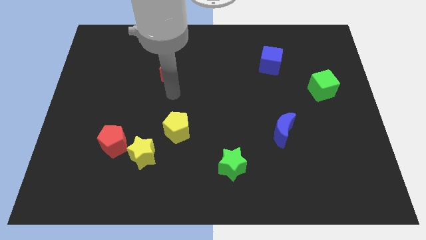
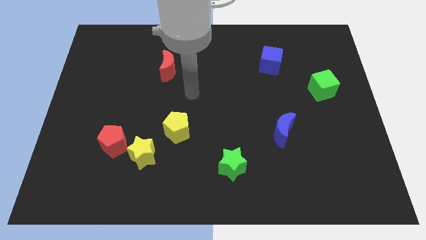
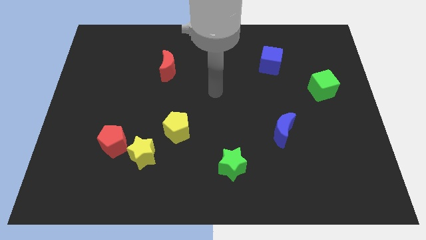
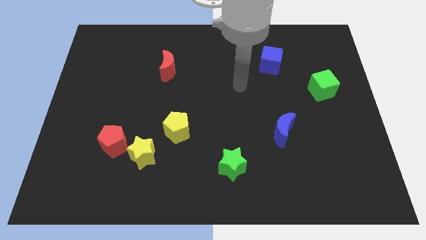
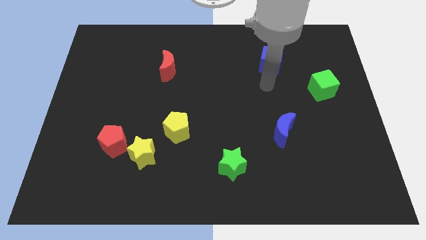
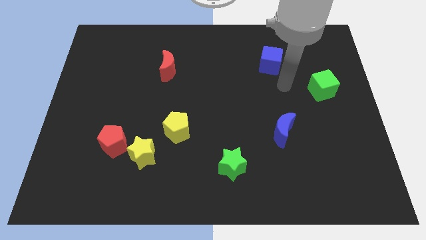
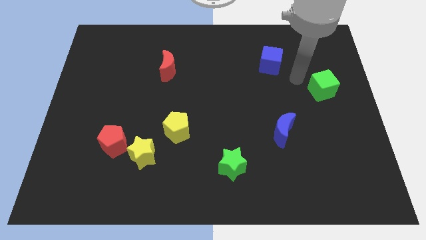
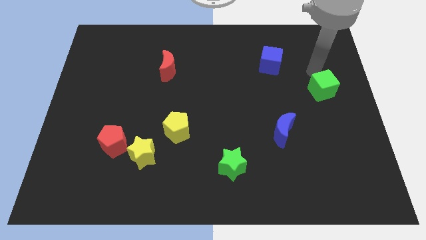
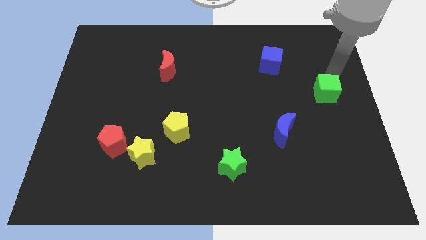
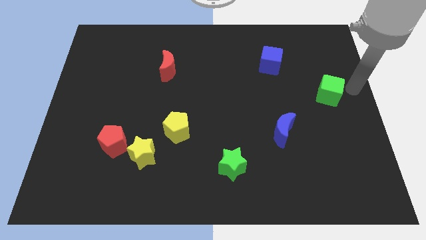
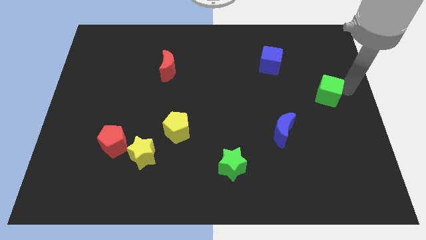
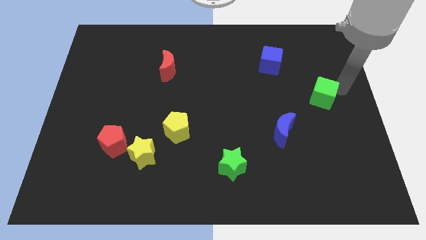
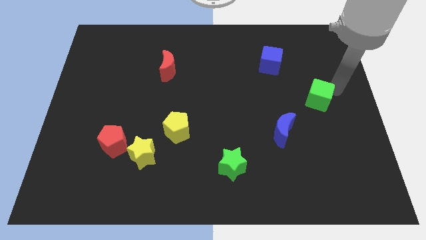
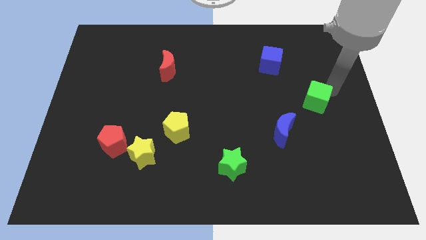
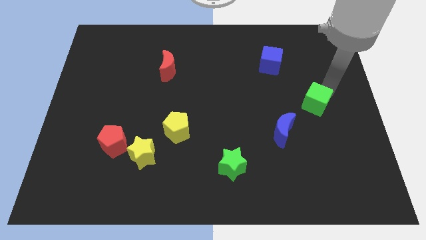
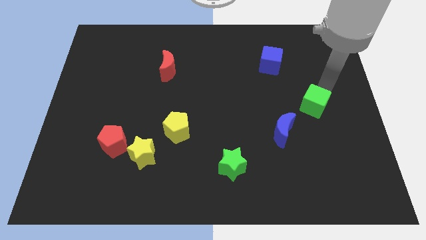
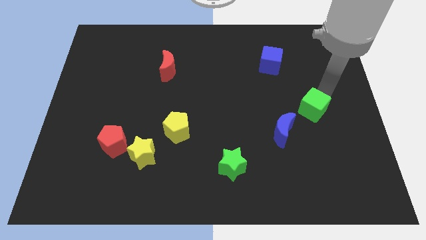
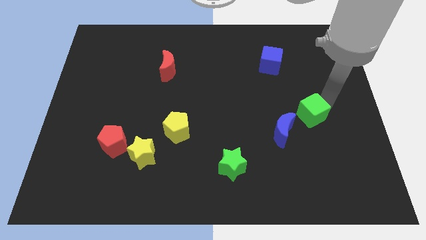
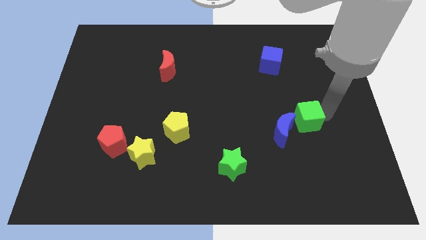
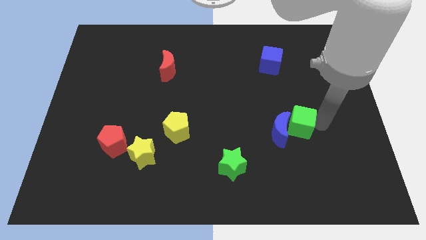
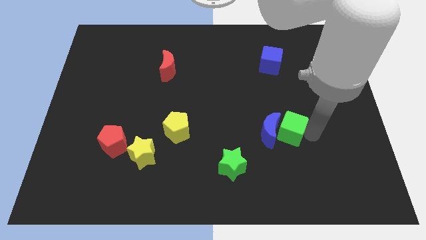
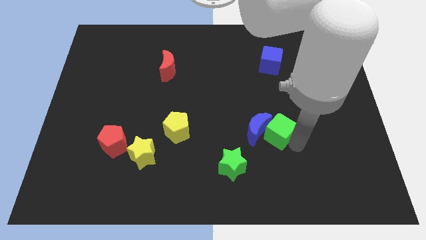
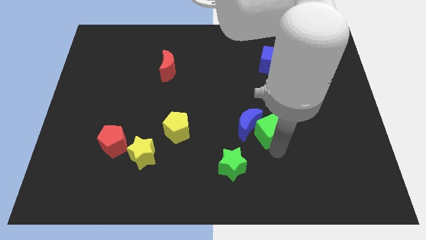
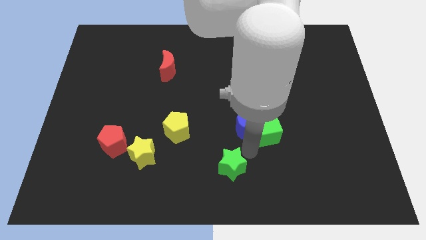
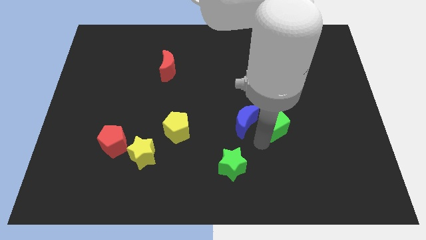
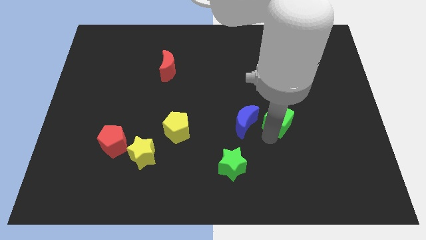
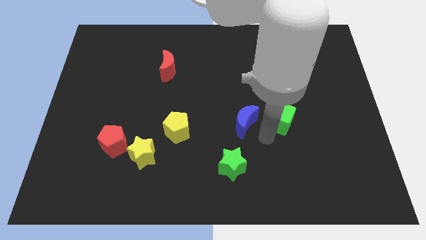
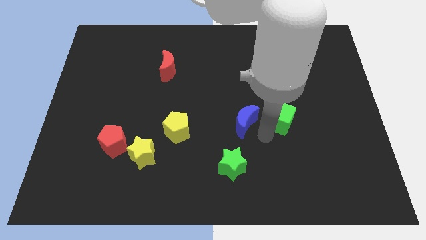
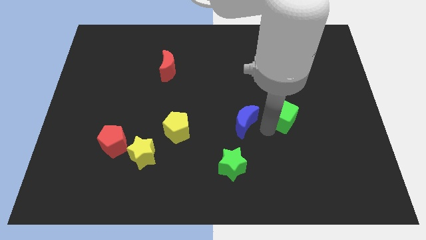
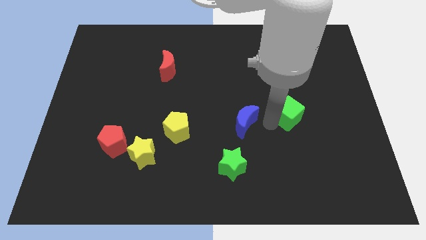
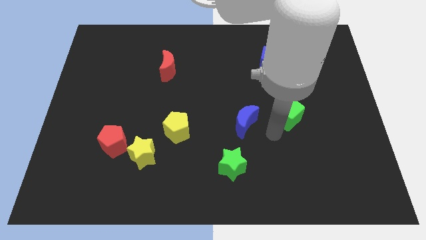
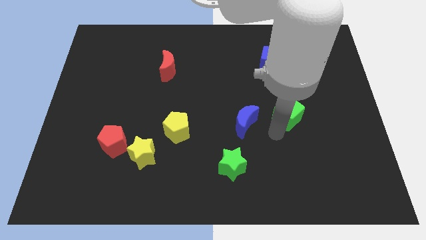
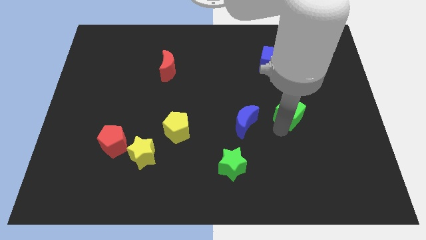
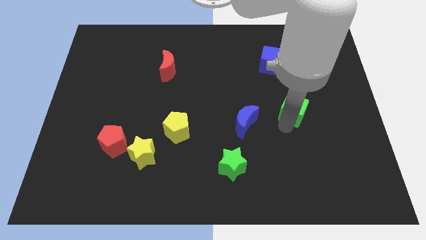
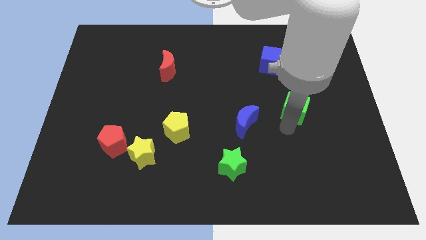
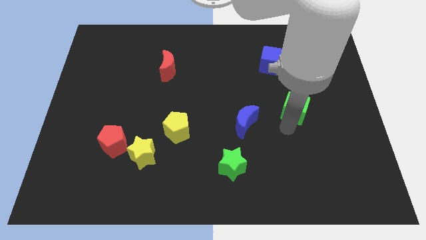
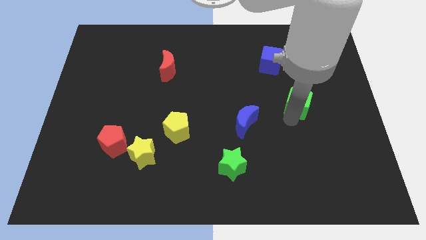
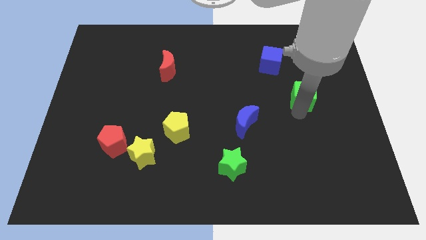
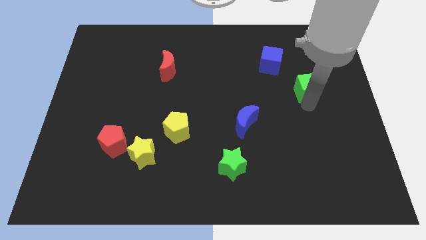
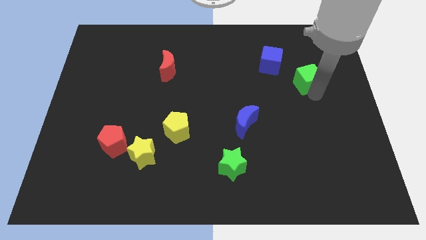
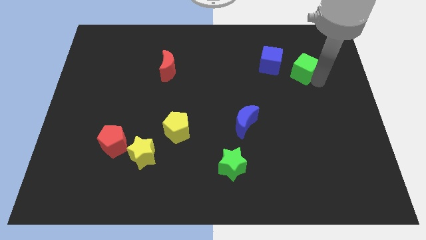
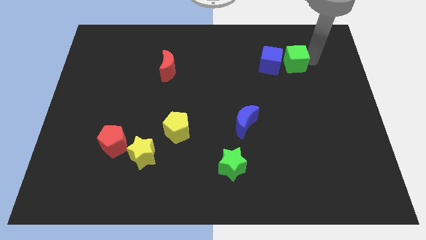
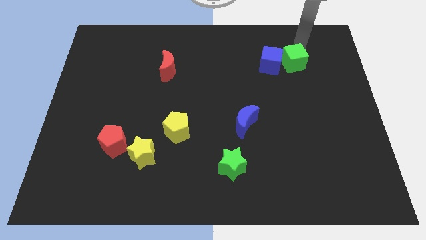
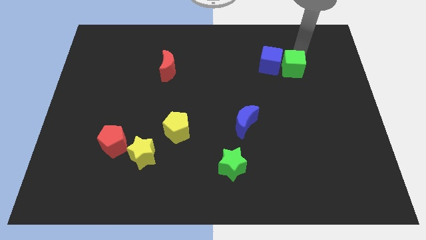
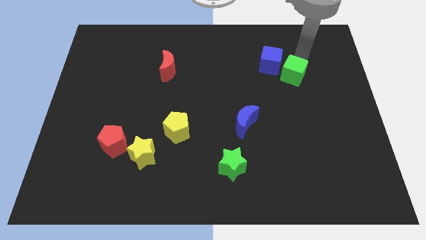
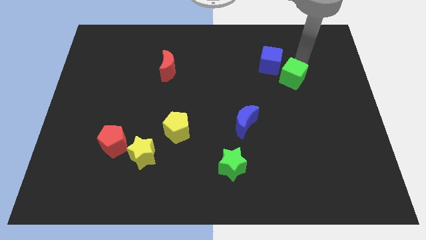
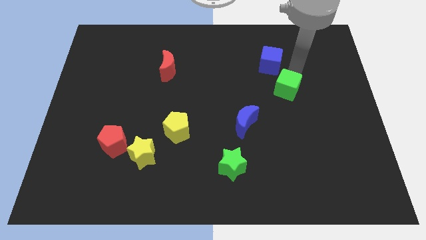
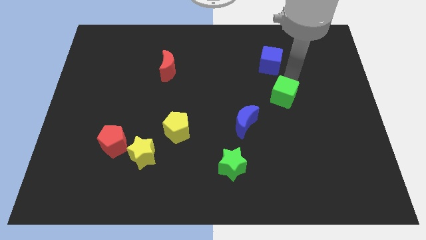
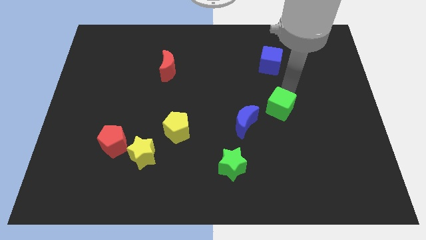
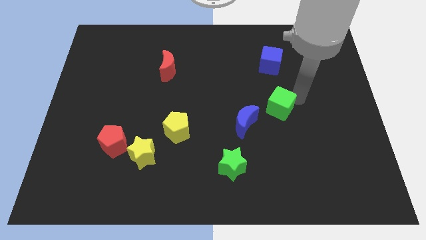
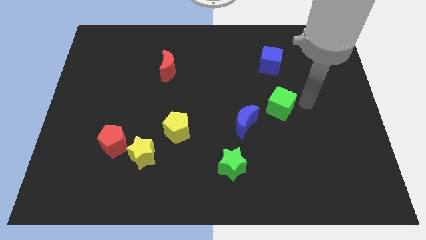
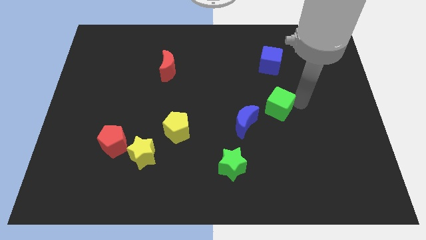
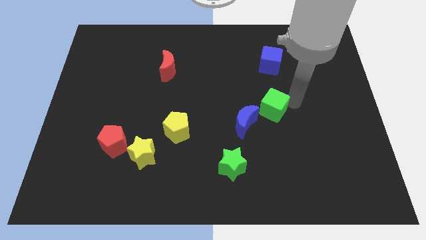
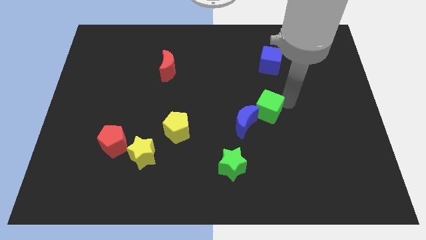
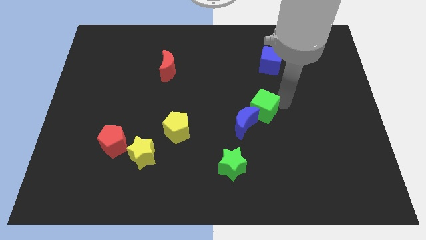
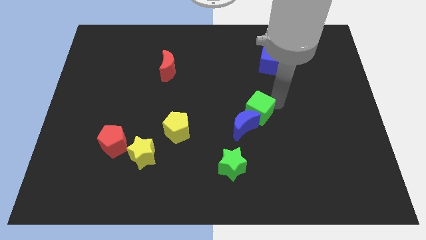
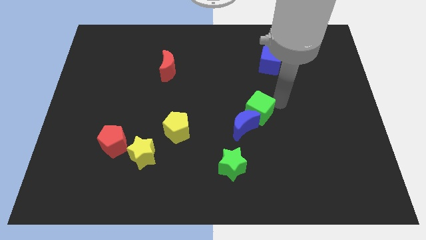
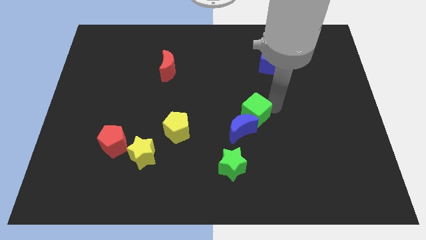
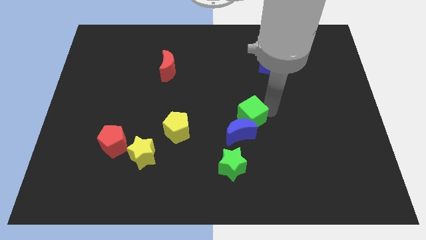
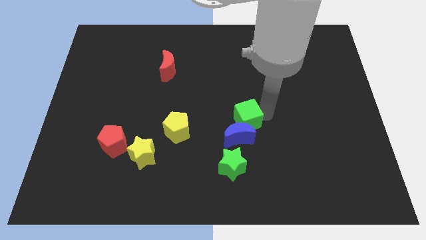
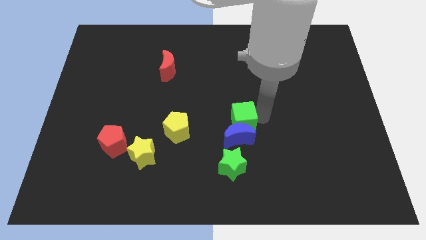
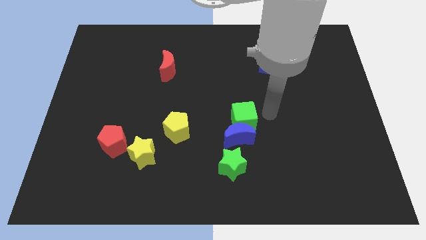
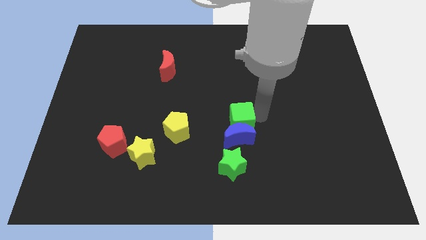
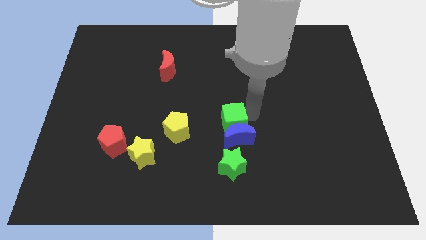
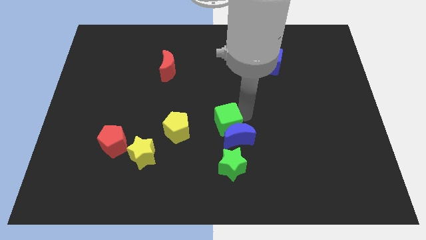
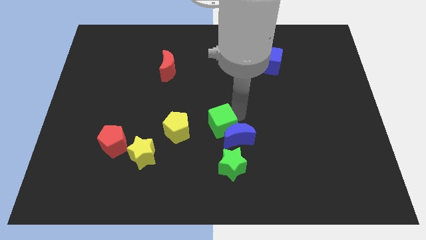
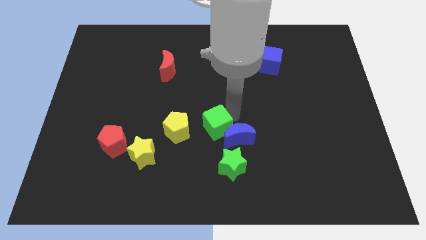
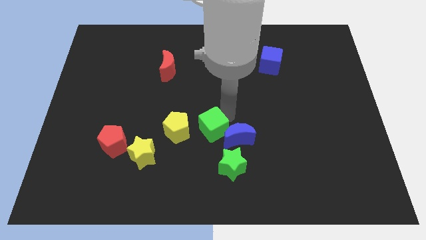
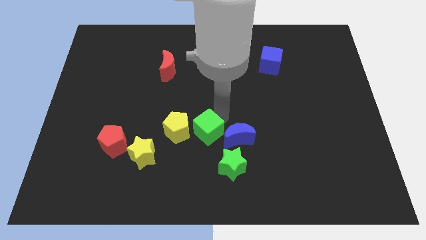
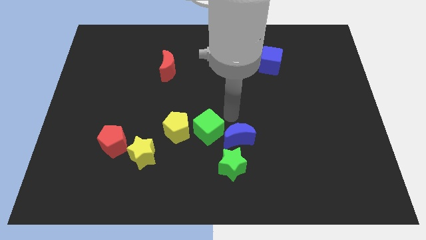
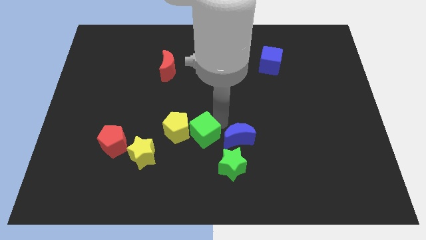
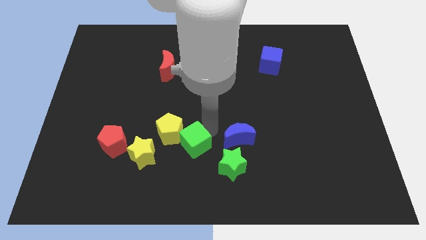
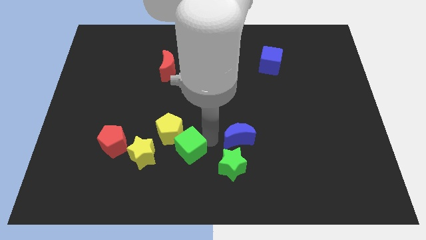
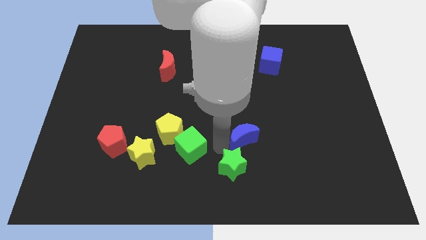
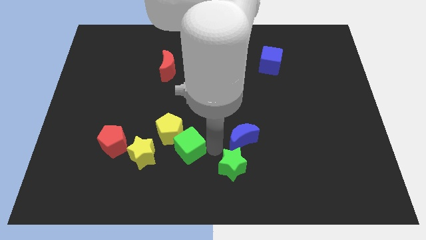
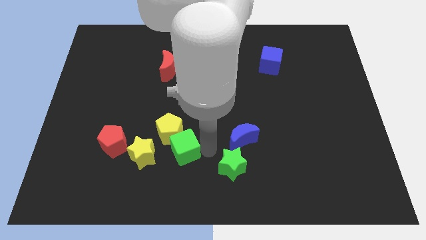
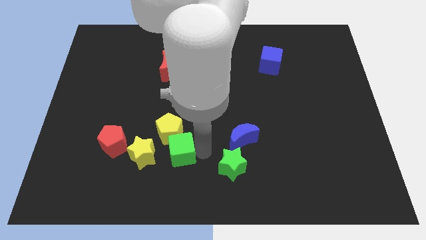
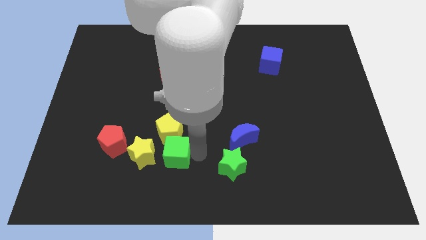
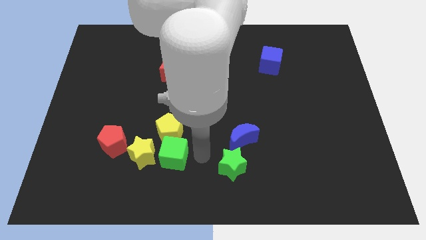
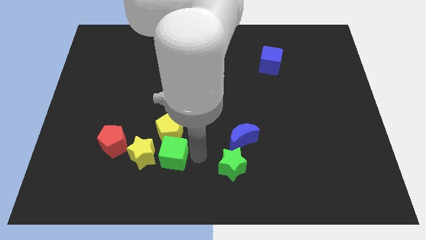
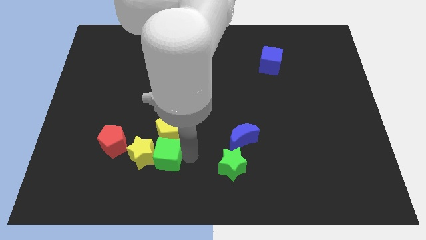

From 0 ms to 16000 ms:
put the green cube to the yellow star
